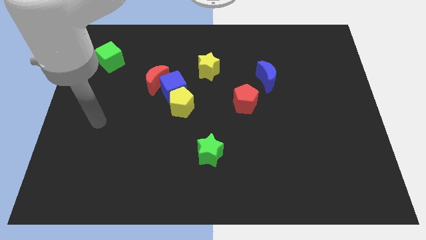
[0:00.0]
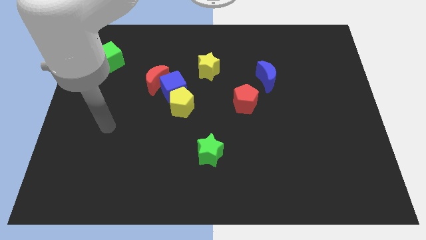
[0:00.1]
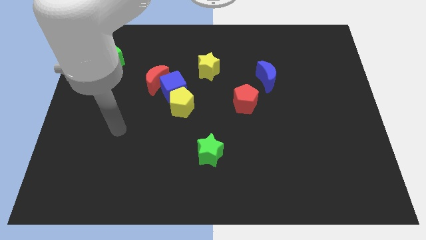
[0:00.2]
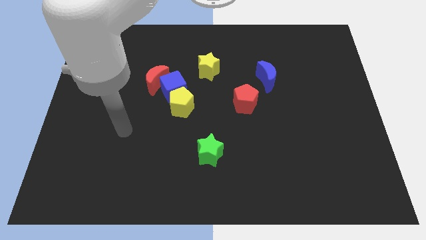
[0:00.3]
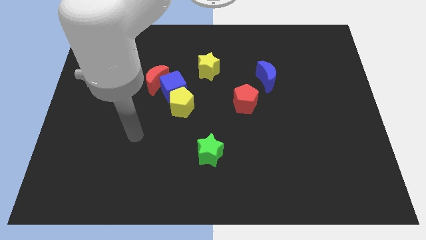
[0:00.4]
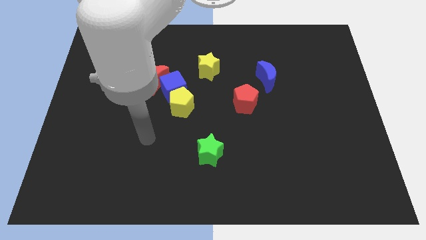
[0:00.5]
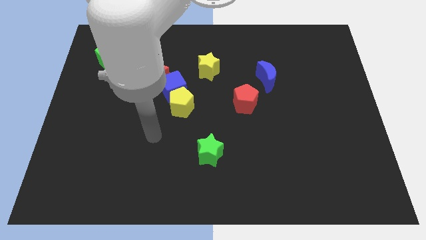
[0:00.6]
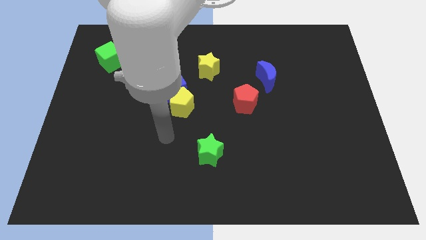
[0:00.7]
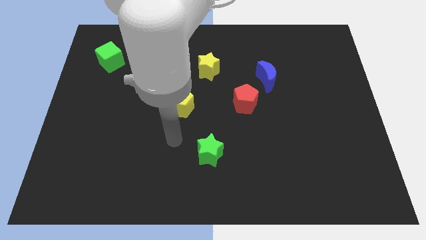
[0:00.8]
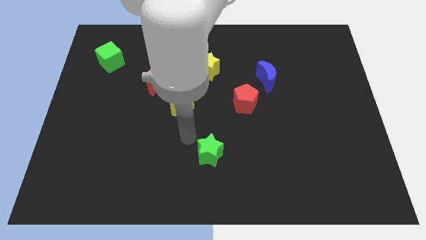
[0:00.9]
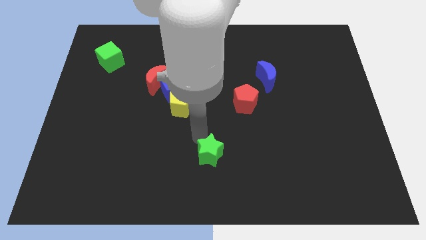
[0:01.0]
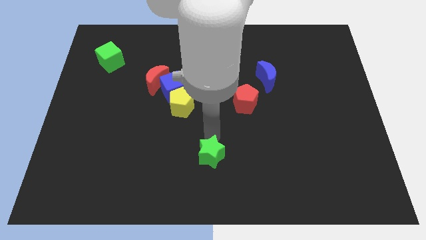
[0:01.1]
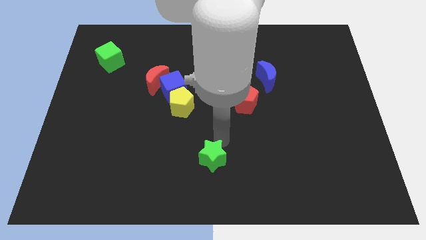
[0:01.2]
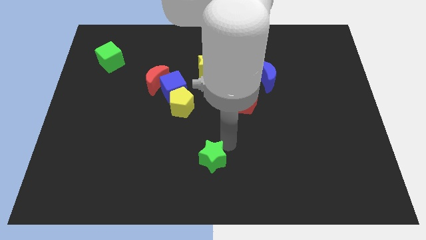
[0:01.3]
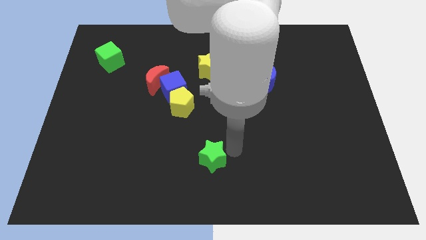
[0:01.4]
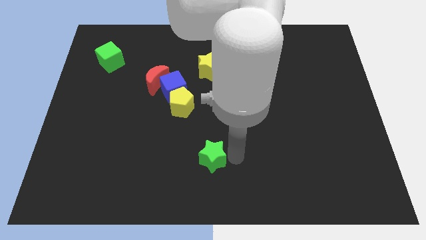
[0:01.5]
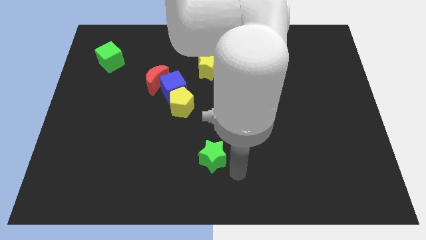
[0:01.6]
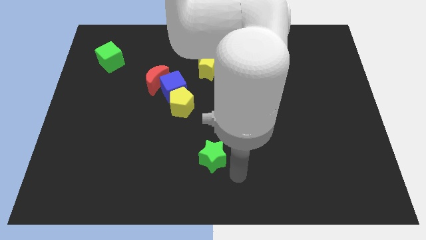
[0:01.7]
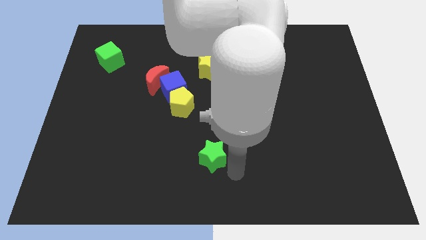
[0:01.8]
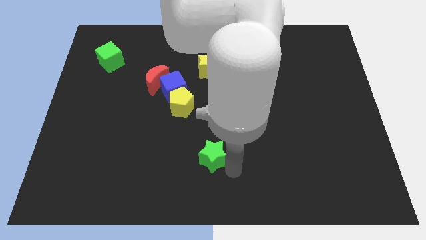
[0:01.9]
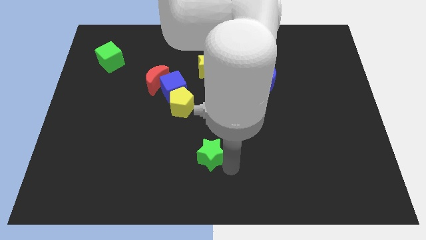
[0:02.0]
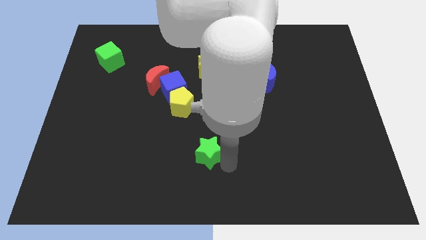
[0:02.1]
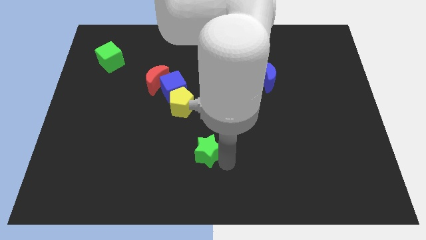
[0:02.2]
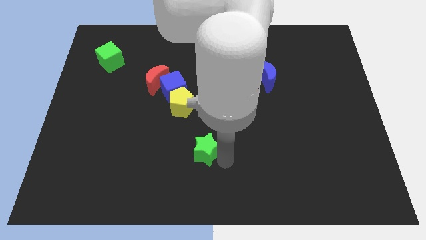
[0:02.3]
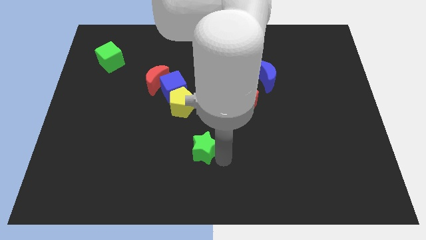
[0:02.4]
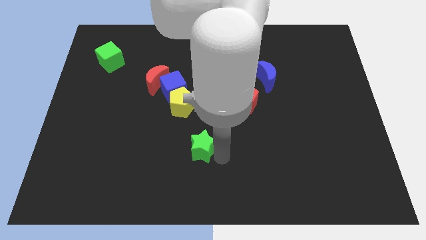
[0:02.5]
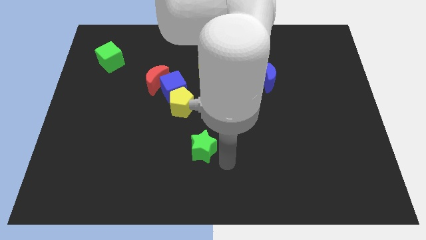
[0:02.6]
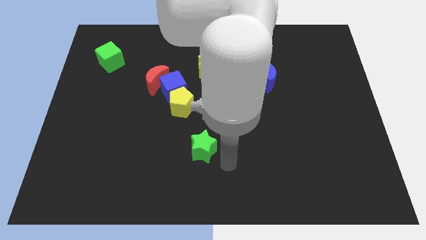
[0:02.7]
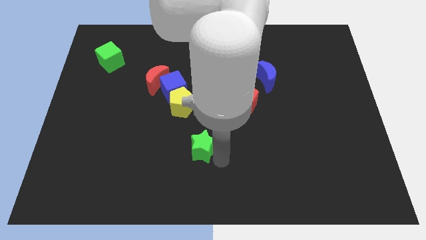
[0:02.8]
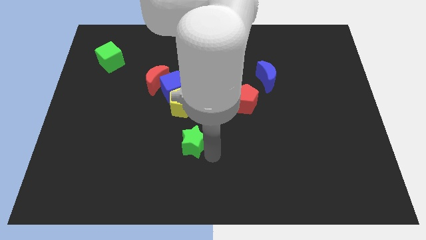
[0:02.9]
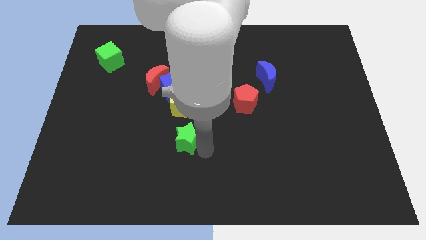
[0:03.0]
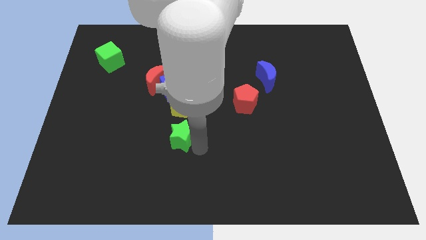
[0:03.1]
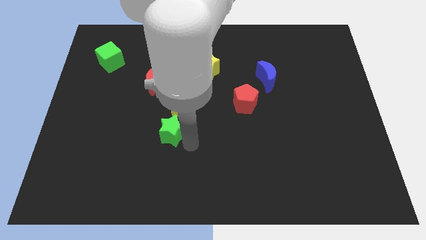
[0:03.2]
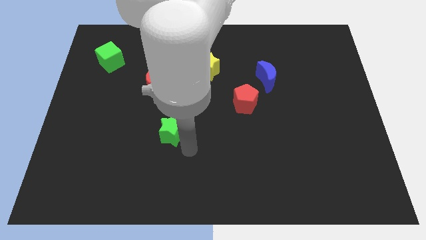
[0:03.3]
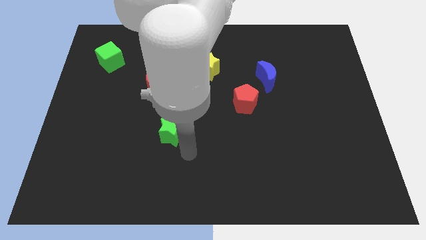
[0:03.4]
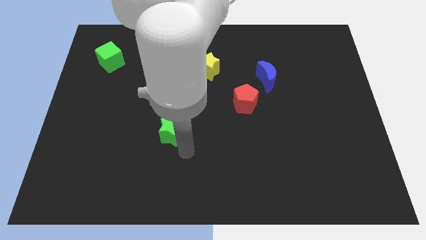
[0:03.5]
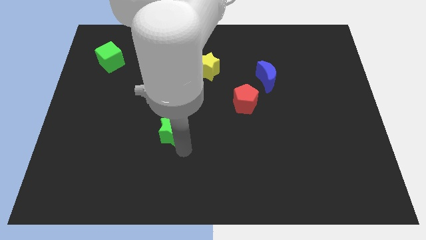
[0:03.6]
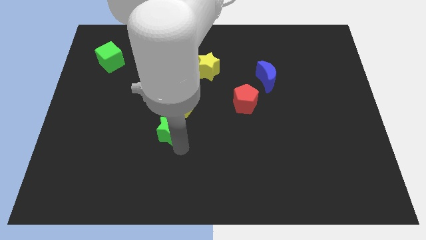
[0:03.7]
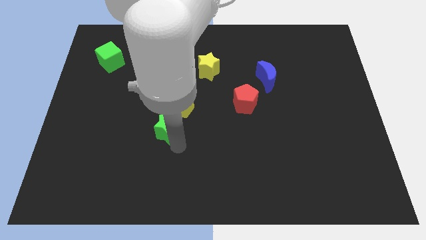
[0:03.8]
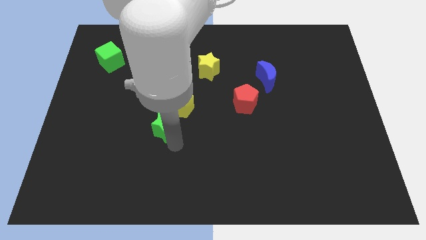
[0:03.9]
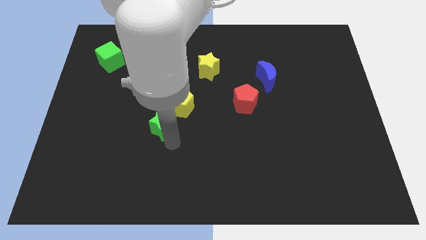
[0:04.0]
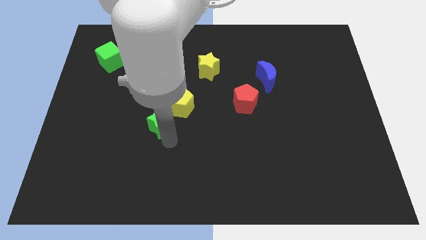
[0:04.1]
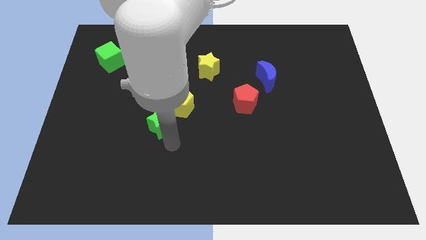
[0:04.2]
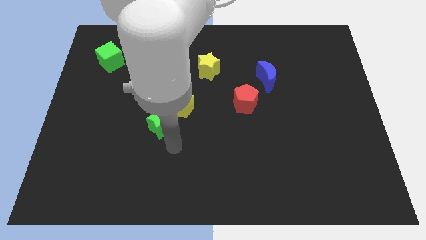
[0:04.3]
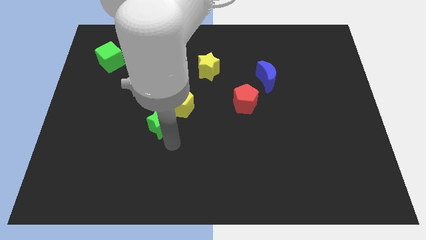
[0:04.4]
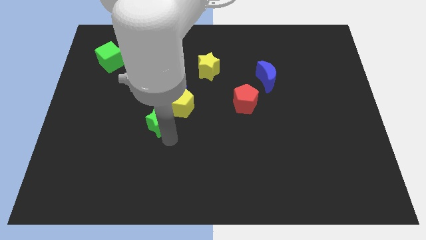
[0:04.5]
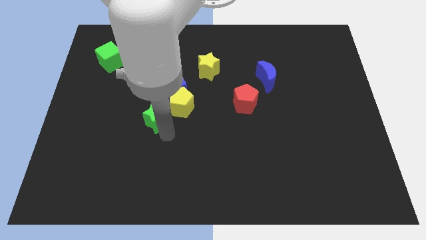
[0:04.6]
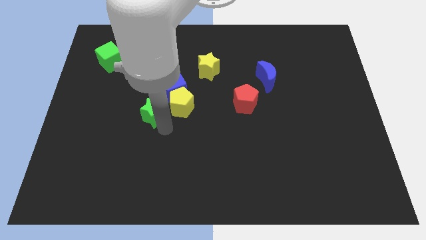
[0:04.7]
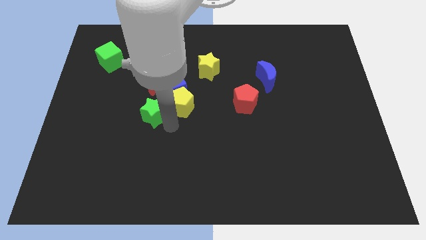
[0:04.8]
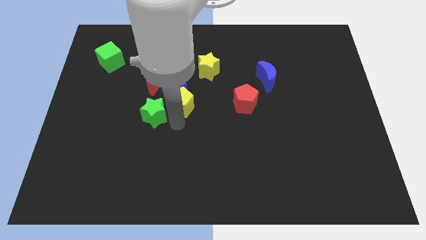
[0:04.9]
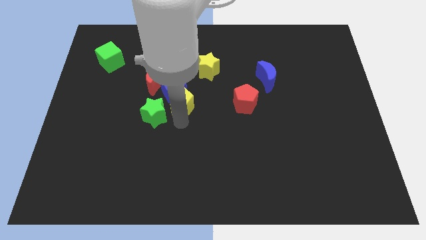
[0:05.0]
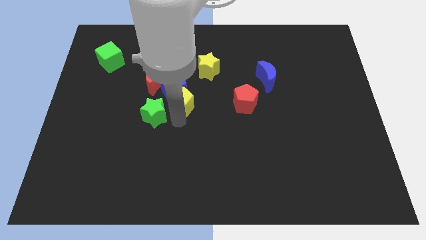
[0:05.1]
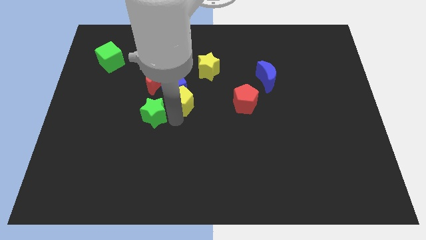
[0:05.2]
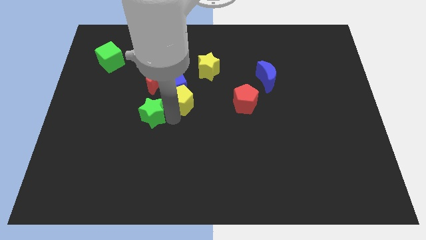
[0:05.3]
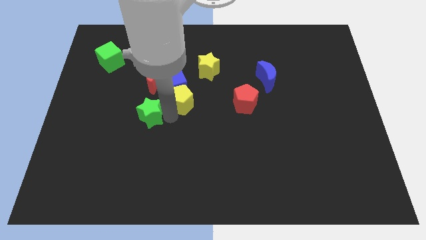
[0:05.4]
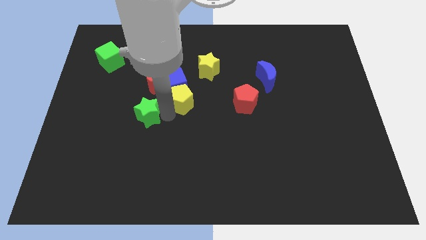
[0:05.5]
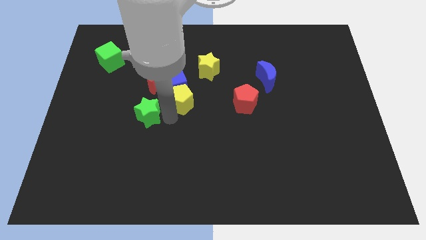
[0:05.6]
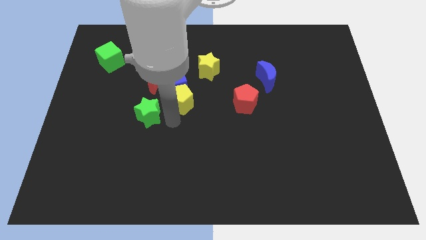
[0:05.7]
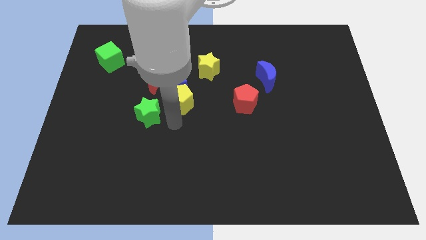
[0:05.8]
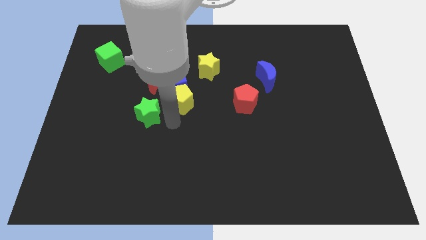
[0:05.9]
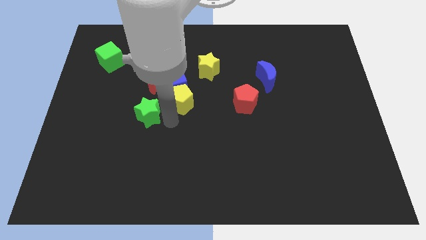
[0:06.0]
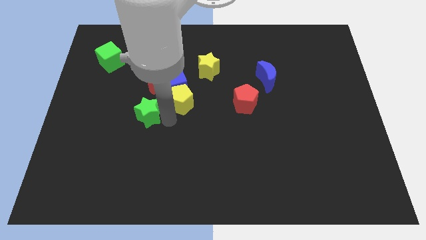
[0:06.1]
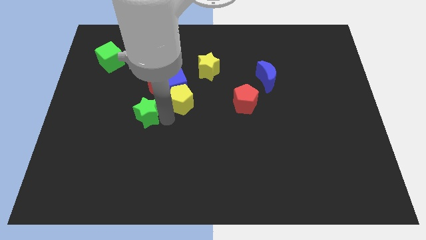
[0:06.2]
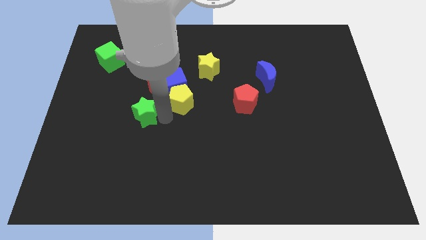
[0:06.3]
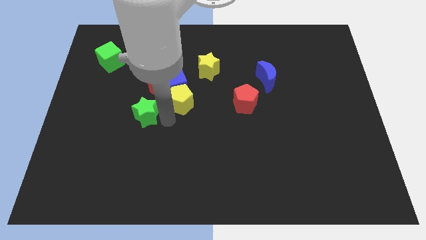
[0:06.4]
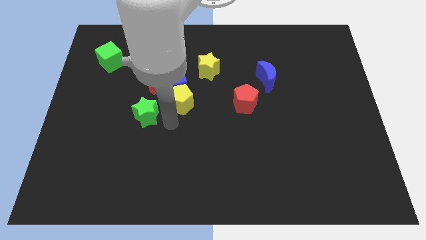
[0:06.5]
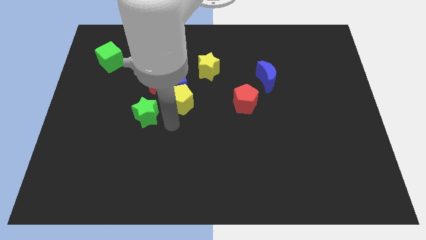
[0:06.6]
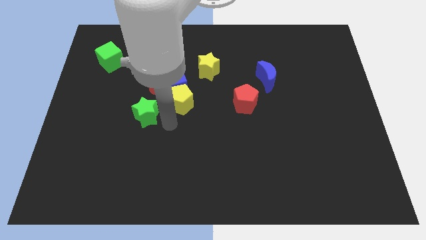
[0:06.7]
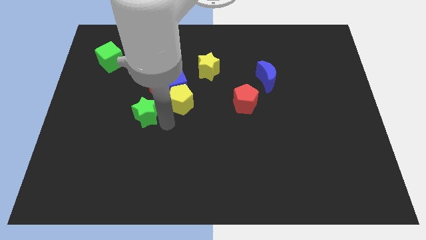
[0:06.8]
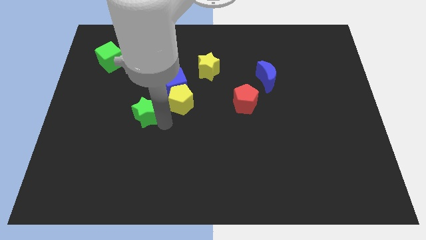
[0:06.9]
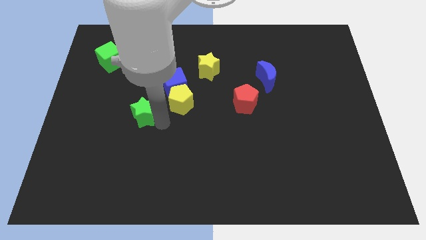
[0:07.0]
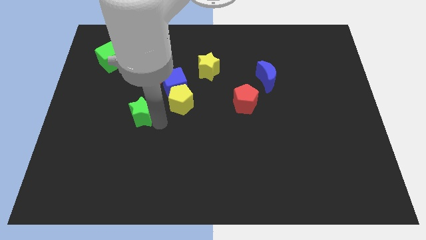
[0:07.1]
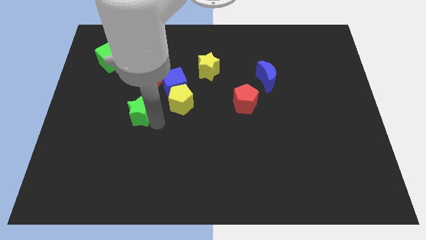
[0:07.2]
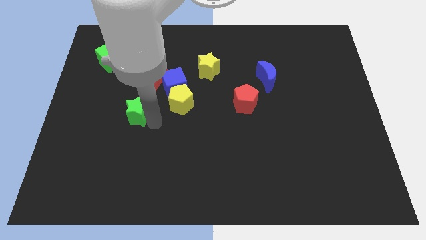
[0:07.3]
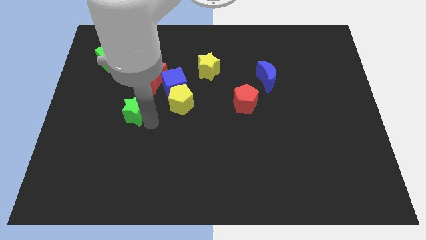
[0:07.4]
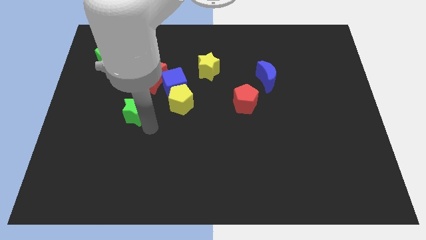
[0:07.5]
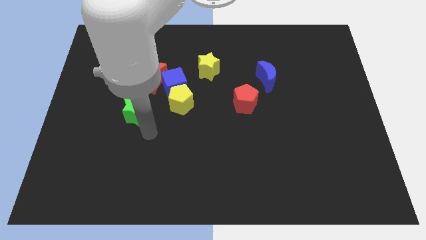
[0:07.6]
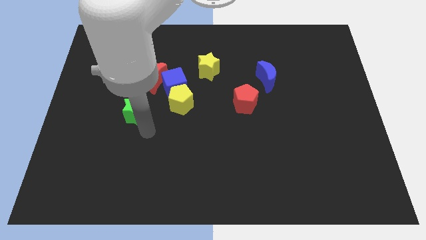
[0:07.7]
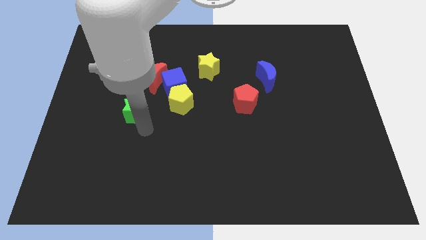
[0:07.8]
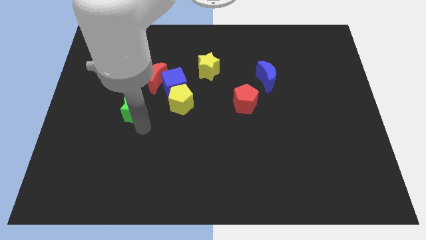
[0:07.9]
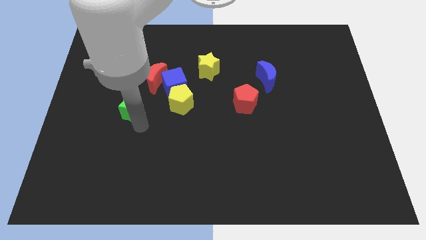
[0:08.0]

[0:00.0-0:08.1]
push the green star diagonally upwards and to the left
